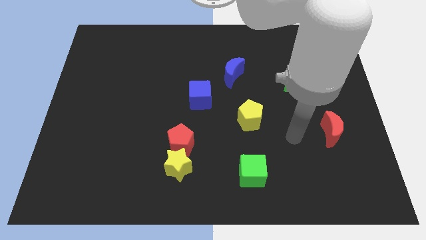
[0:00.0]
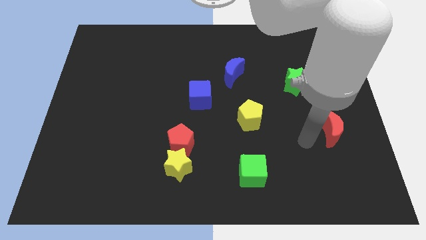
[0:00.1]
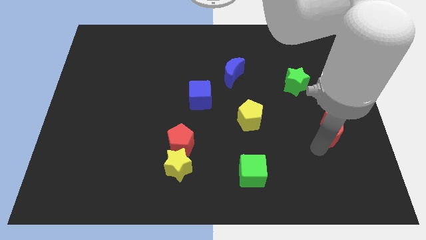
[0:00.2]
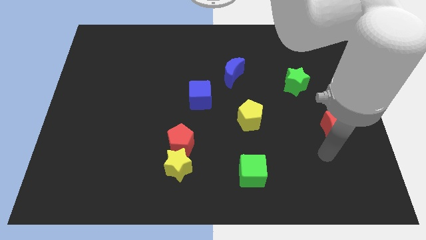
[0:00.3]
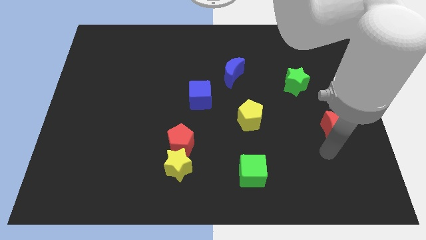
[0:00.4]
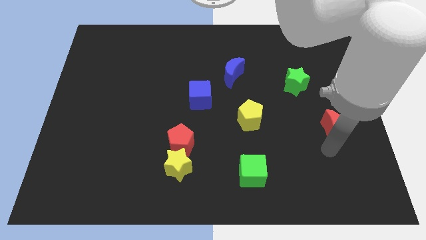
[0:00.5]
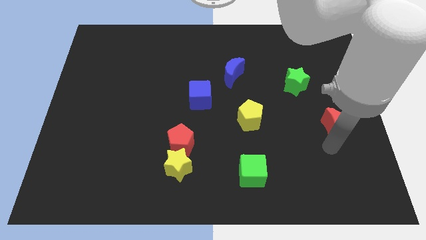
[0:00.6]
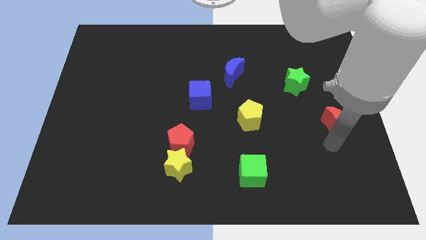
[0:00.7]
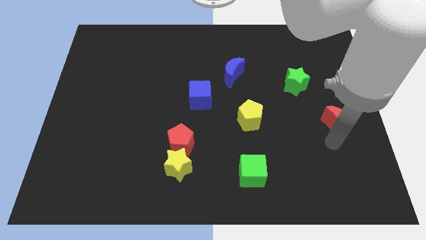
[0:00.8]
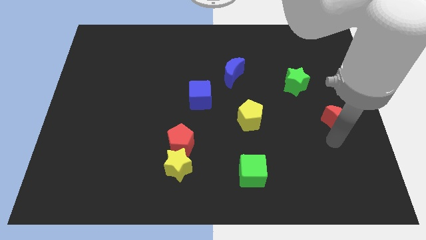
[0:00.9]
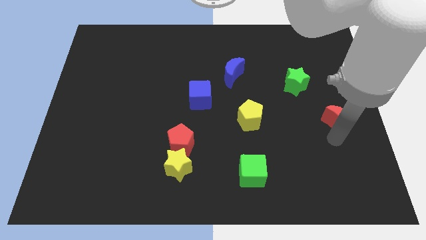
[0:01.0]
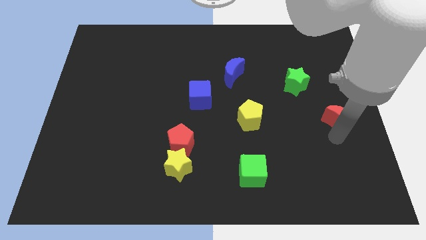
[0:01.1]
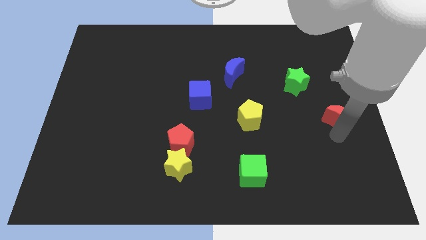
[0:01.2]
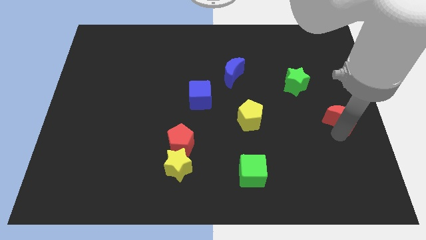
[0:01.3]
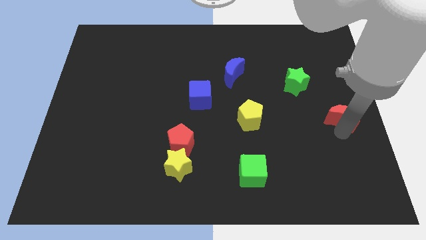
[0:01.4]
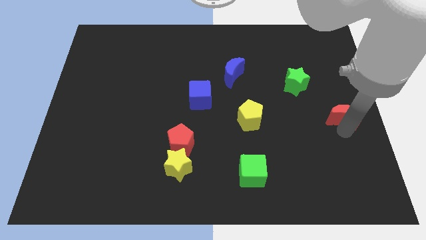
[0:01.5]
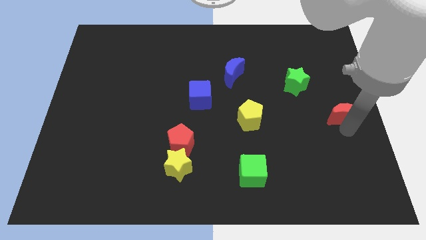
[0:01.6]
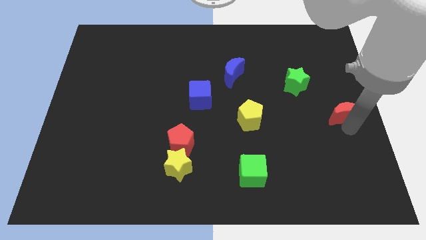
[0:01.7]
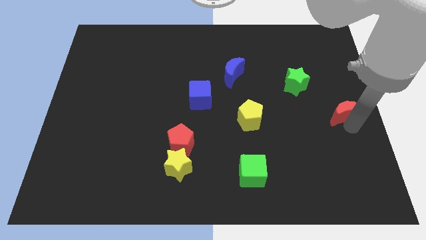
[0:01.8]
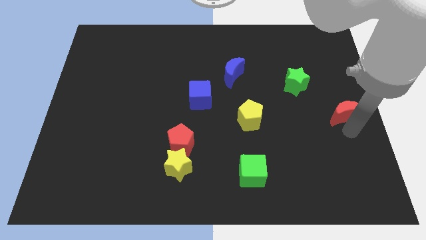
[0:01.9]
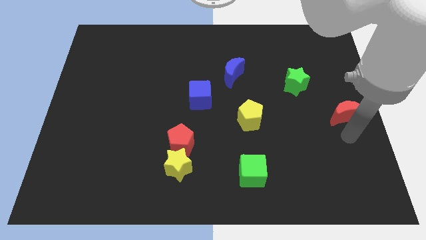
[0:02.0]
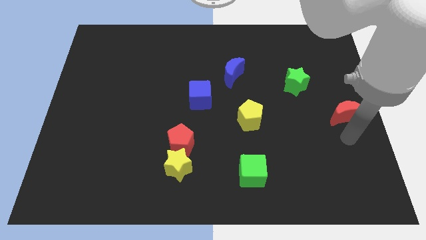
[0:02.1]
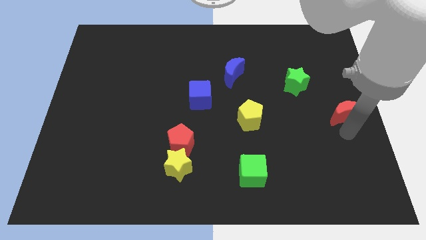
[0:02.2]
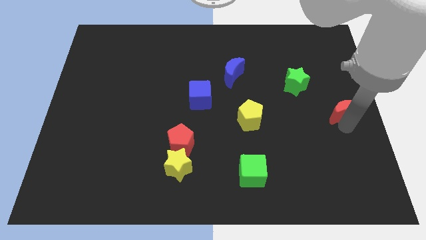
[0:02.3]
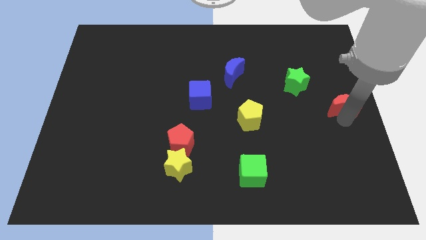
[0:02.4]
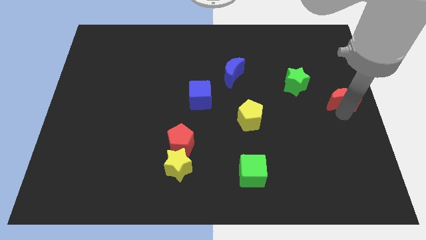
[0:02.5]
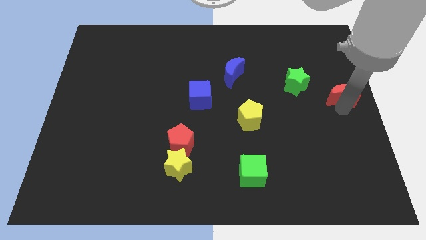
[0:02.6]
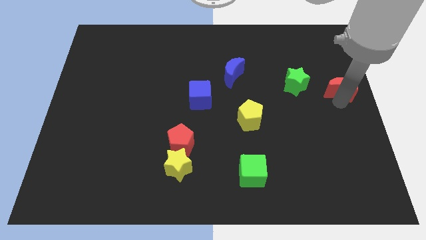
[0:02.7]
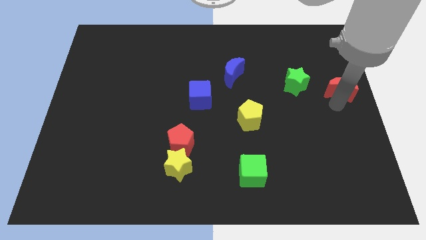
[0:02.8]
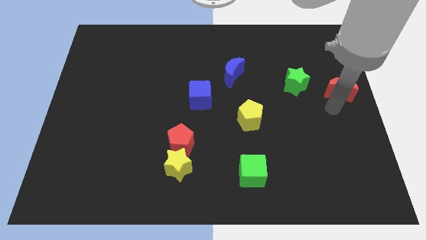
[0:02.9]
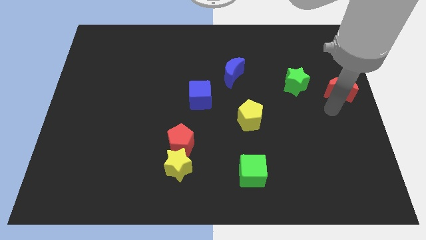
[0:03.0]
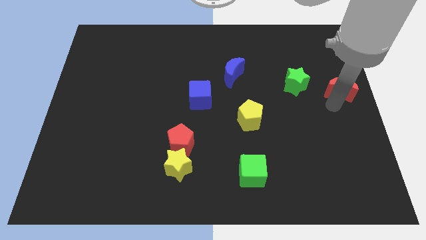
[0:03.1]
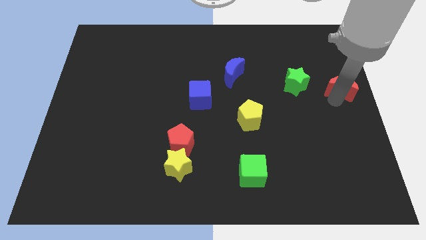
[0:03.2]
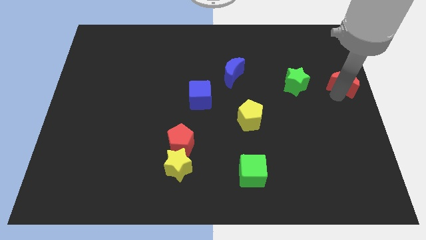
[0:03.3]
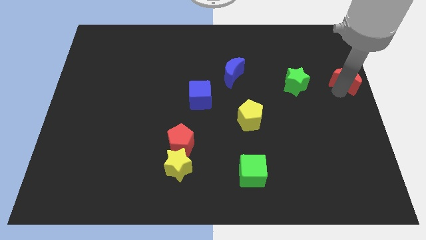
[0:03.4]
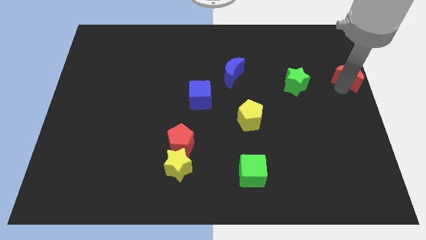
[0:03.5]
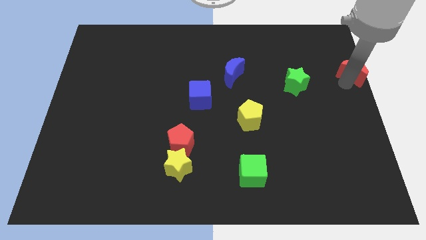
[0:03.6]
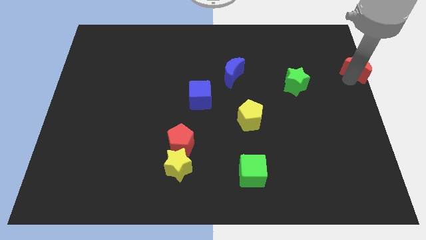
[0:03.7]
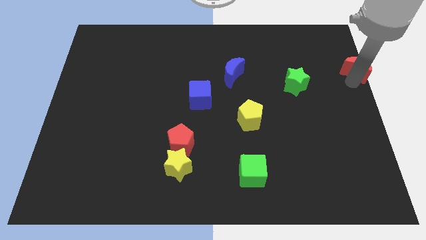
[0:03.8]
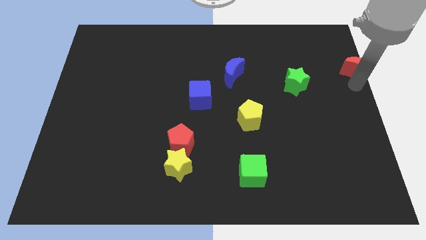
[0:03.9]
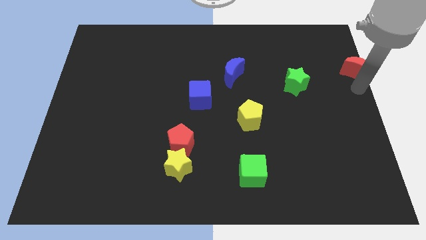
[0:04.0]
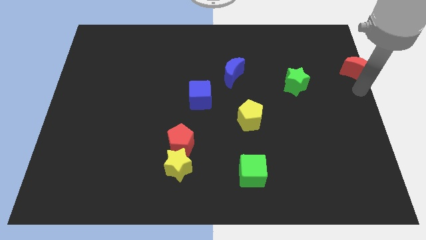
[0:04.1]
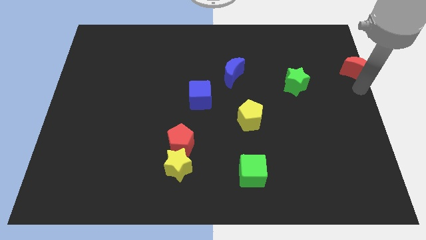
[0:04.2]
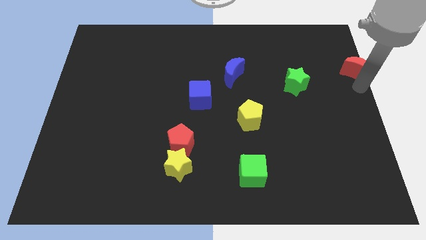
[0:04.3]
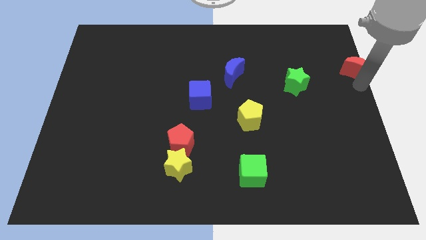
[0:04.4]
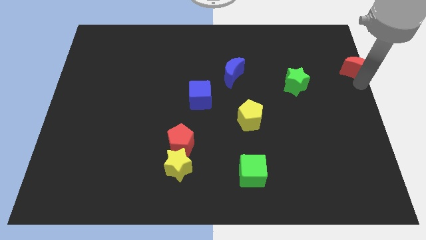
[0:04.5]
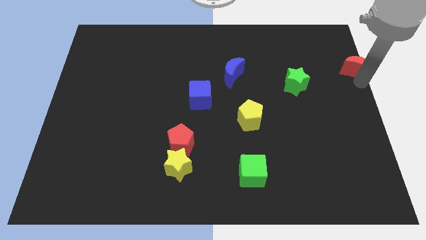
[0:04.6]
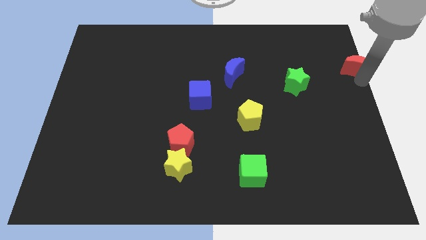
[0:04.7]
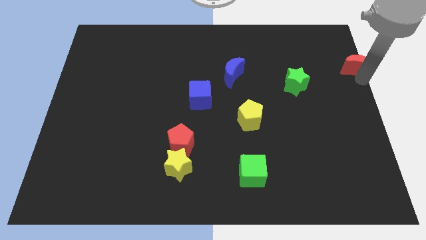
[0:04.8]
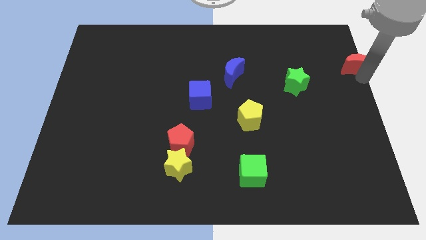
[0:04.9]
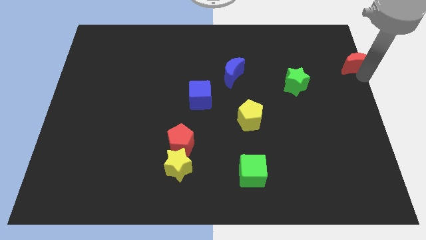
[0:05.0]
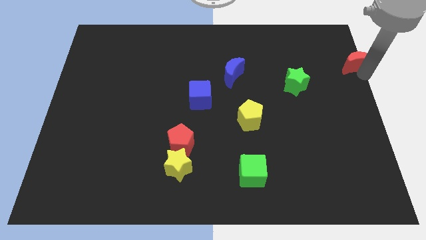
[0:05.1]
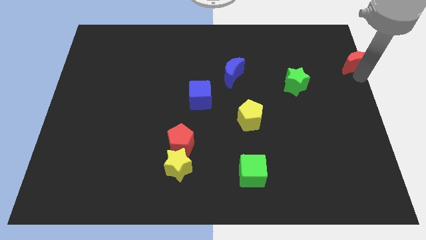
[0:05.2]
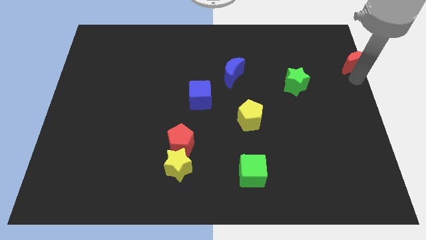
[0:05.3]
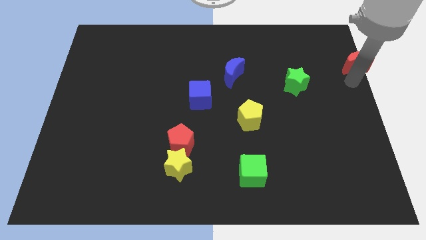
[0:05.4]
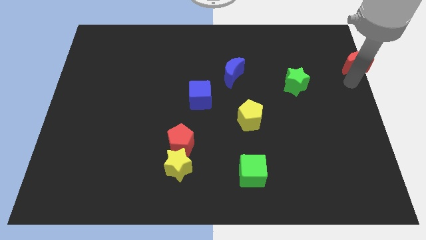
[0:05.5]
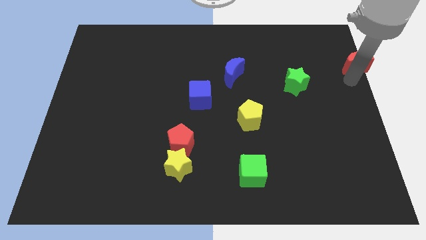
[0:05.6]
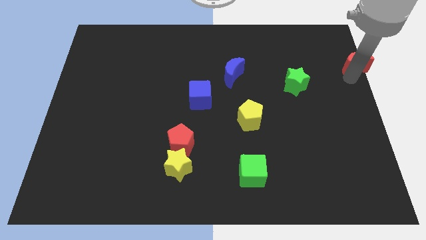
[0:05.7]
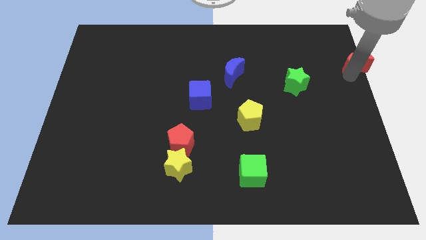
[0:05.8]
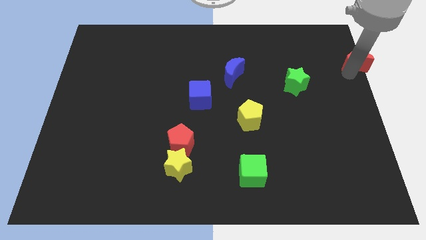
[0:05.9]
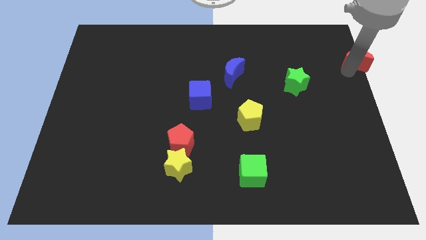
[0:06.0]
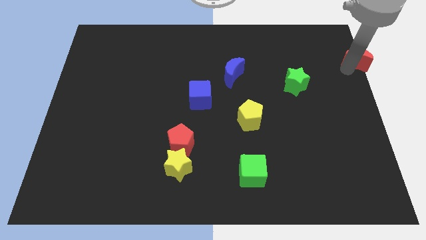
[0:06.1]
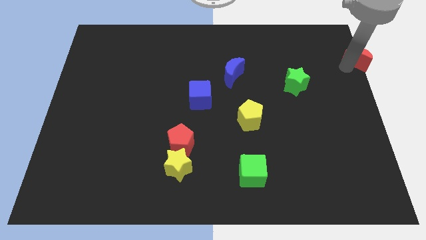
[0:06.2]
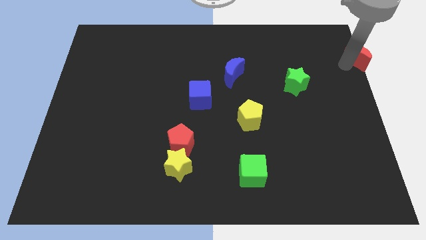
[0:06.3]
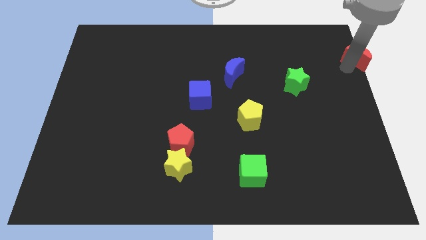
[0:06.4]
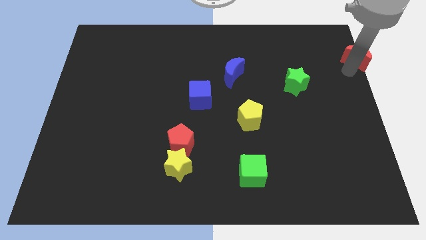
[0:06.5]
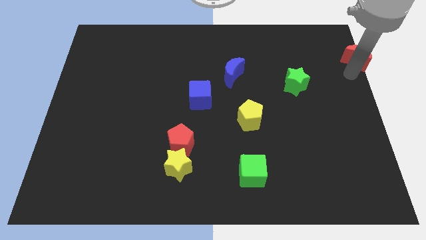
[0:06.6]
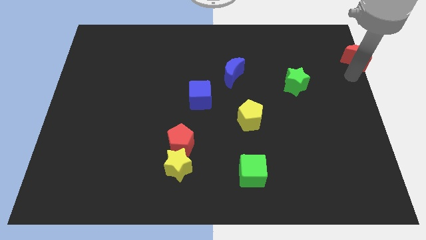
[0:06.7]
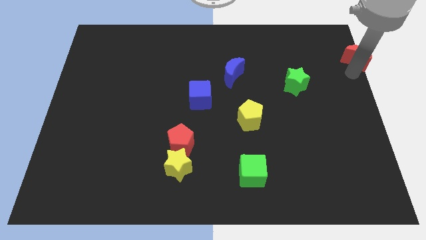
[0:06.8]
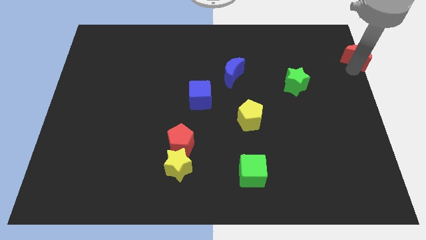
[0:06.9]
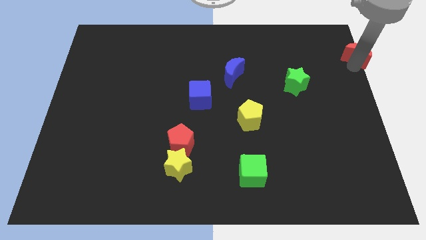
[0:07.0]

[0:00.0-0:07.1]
push the red moon to the upper right corner

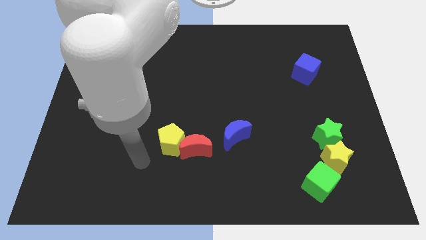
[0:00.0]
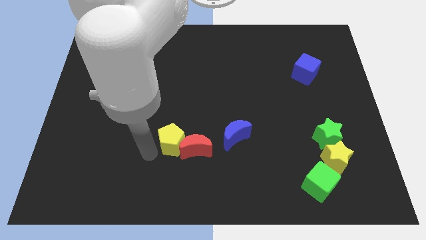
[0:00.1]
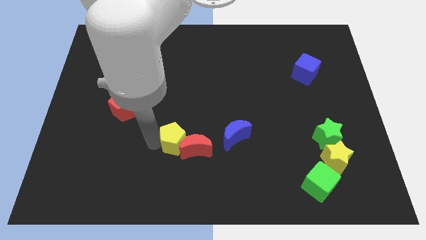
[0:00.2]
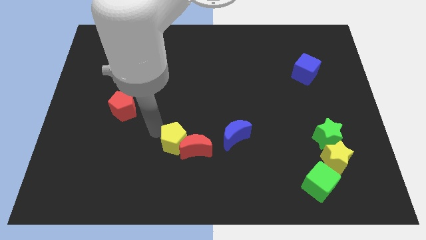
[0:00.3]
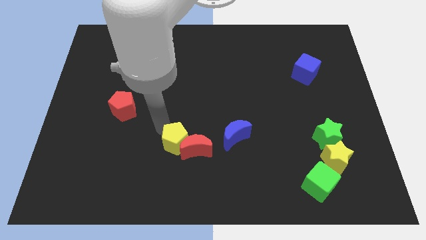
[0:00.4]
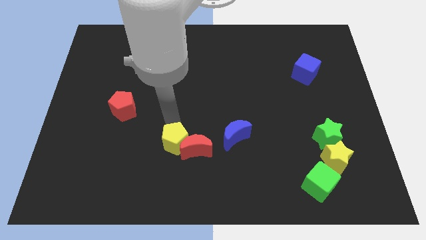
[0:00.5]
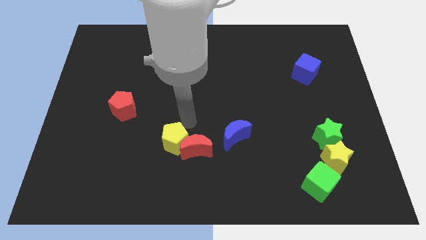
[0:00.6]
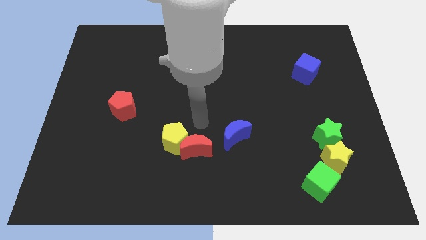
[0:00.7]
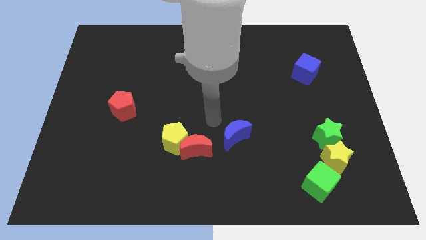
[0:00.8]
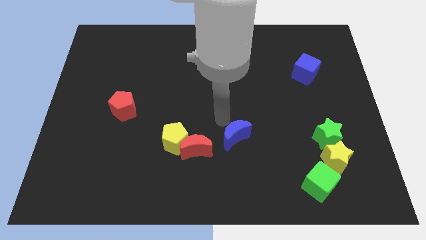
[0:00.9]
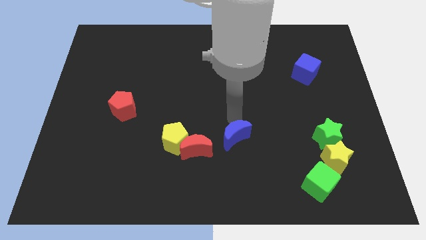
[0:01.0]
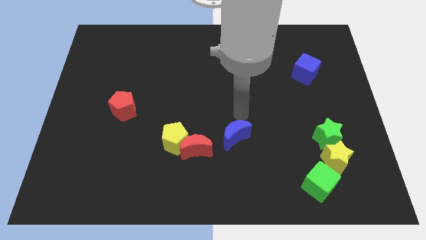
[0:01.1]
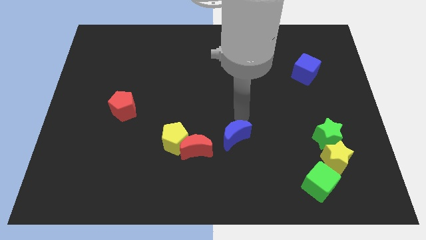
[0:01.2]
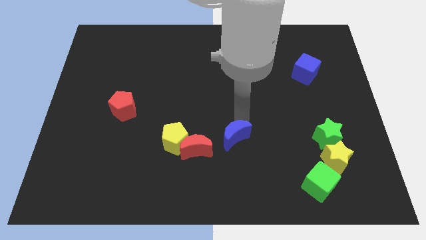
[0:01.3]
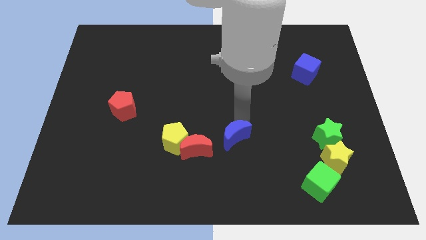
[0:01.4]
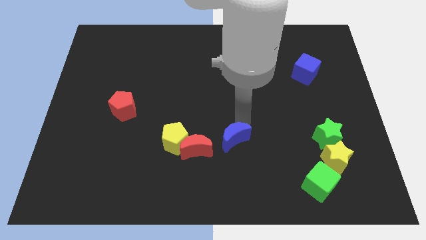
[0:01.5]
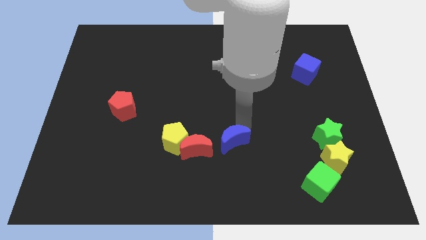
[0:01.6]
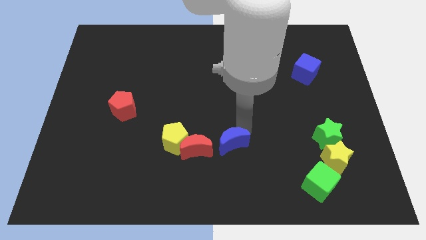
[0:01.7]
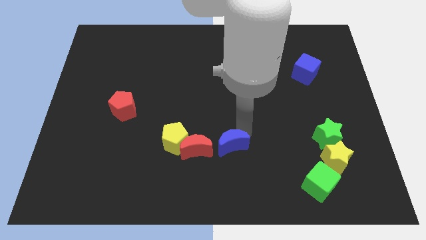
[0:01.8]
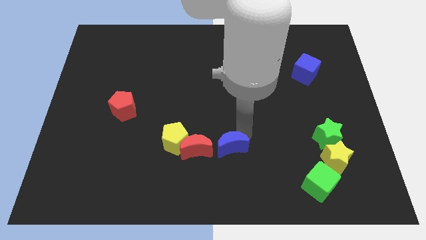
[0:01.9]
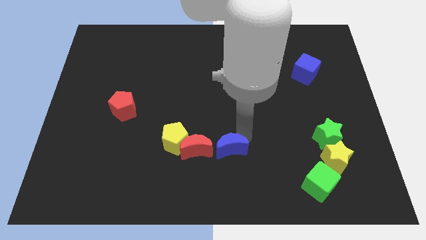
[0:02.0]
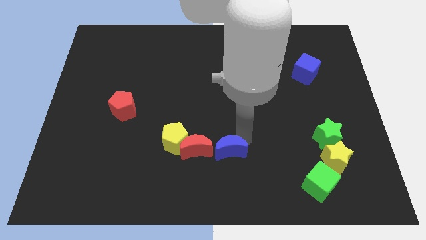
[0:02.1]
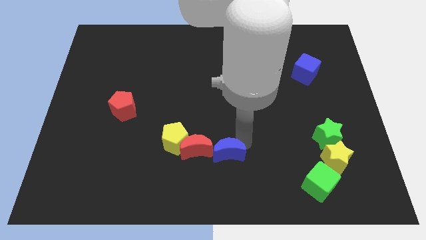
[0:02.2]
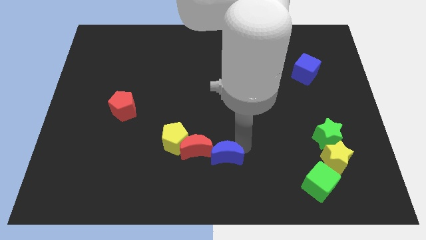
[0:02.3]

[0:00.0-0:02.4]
put the blue moon to the bottom
